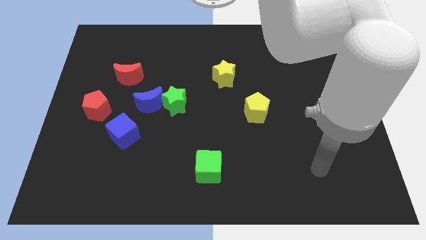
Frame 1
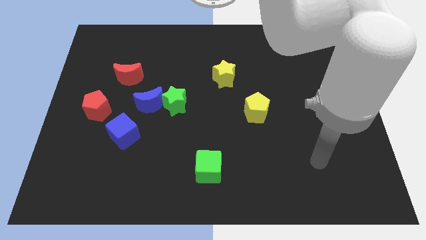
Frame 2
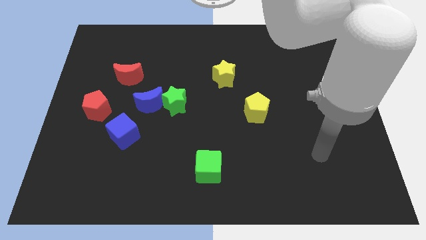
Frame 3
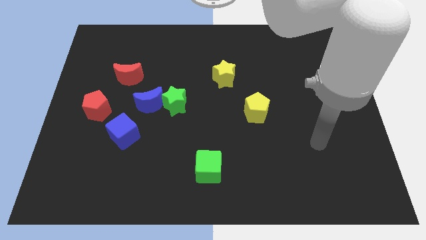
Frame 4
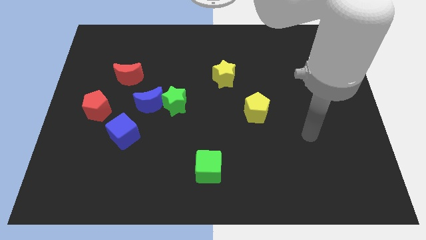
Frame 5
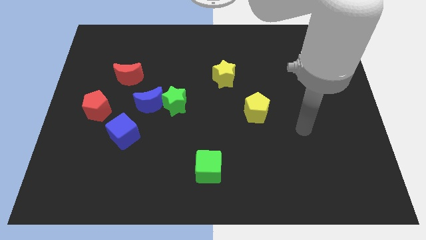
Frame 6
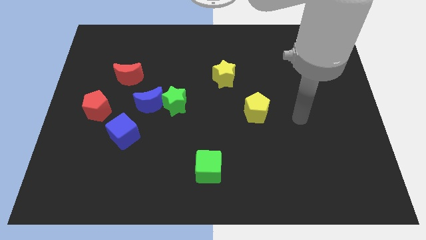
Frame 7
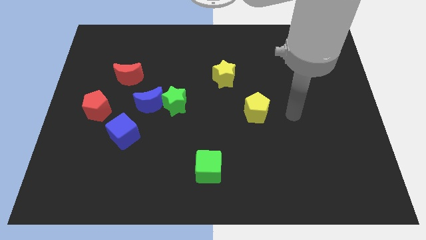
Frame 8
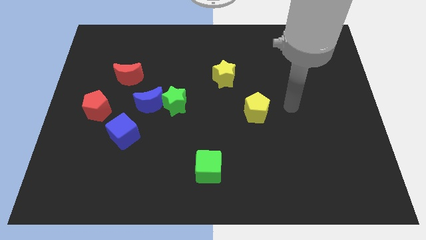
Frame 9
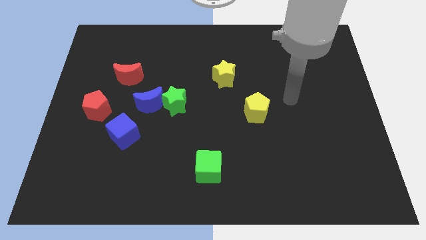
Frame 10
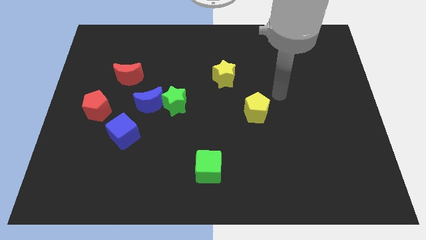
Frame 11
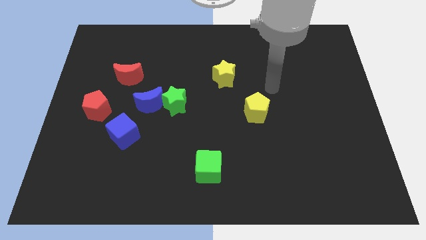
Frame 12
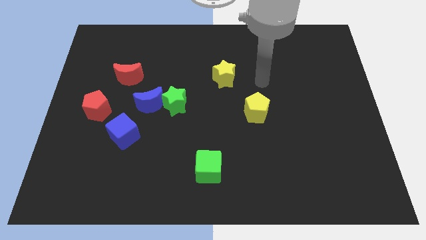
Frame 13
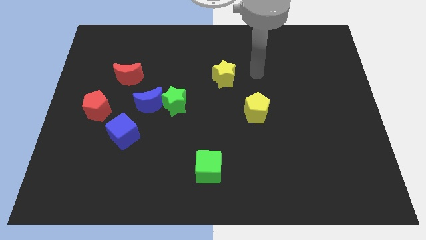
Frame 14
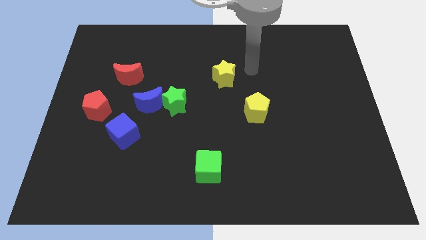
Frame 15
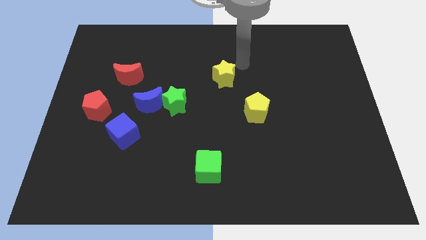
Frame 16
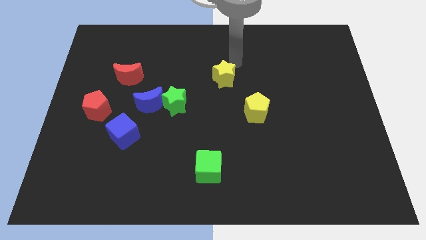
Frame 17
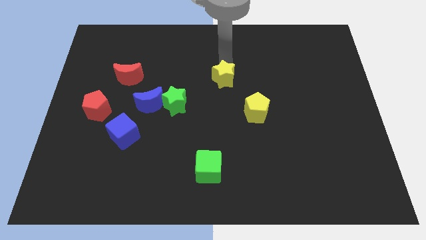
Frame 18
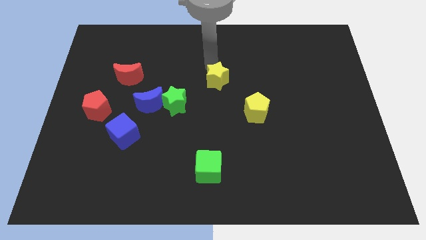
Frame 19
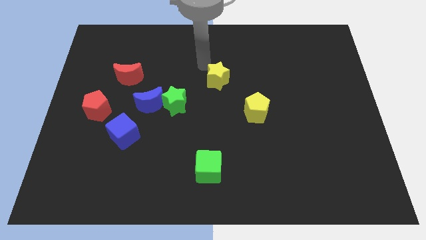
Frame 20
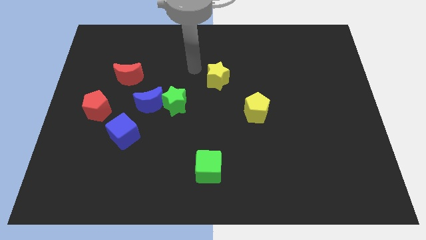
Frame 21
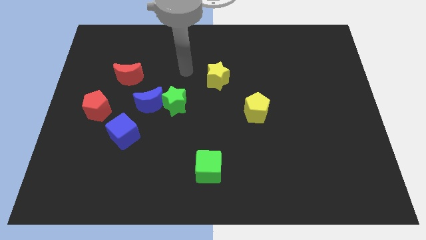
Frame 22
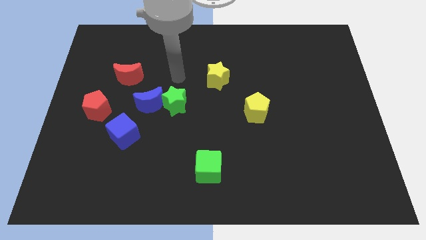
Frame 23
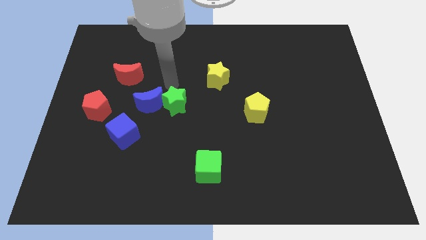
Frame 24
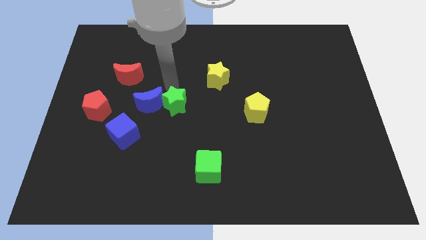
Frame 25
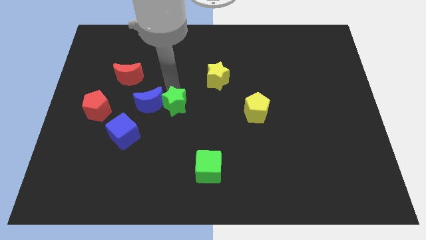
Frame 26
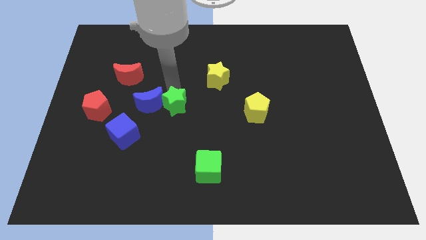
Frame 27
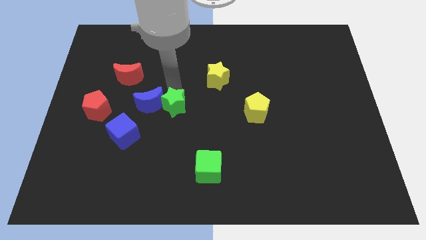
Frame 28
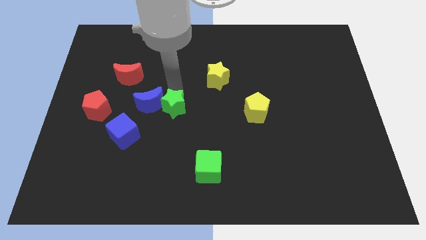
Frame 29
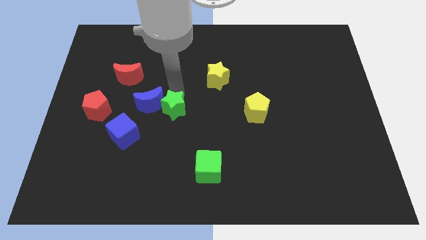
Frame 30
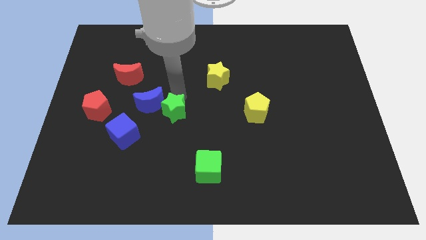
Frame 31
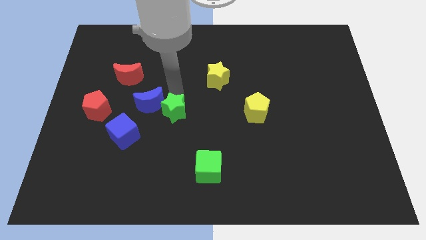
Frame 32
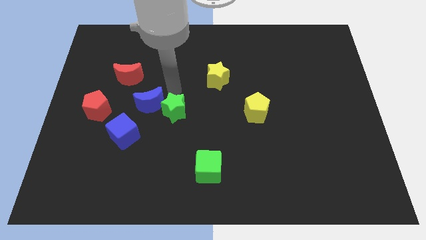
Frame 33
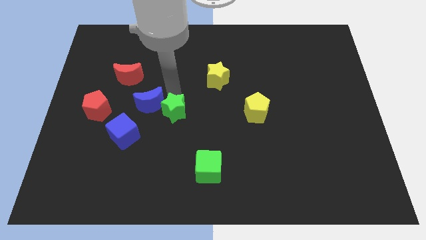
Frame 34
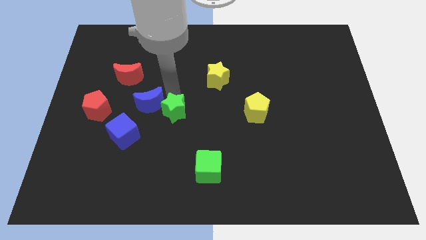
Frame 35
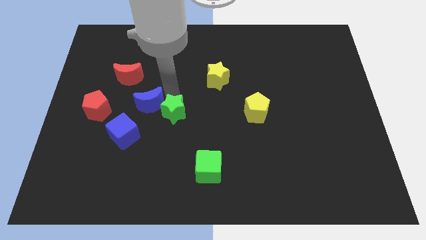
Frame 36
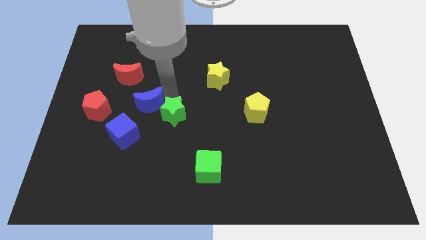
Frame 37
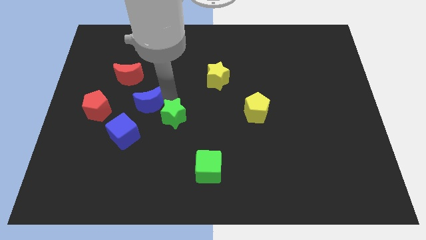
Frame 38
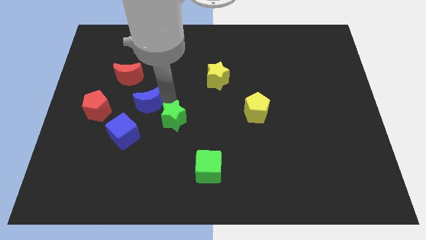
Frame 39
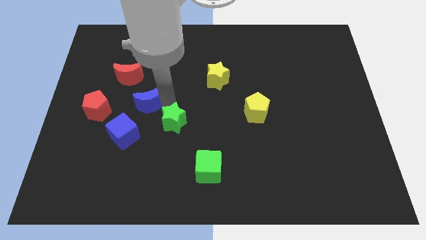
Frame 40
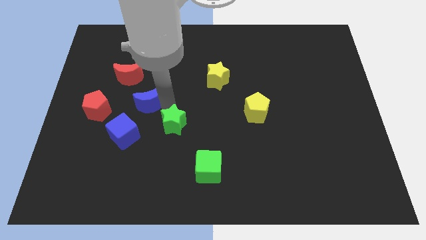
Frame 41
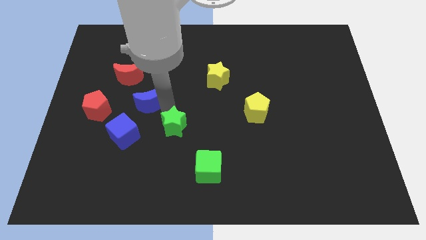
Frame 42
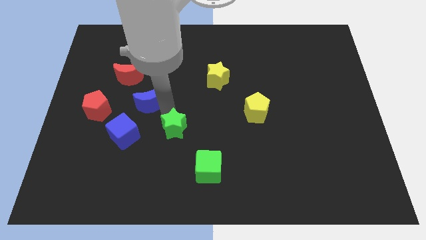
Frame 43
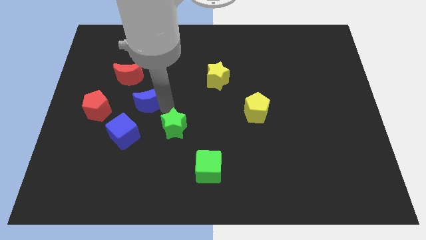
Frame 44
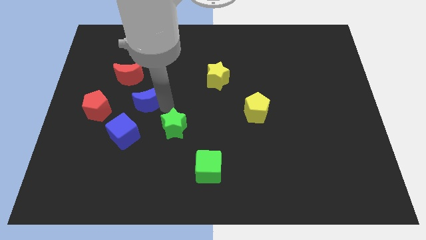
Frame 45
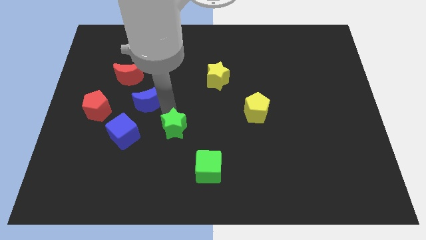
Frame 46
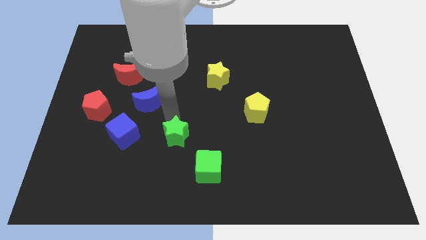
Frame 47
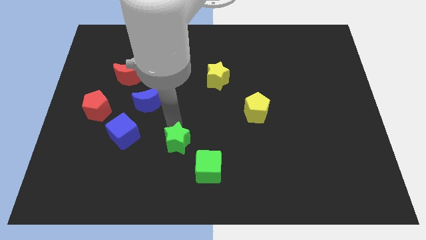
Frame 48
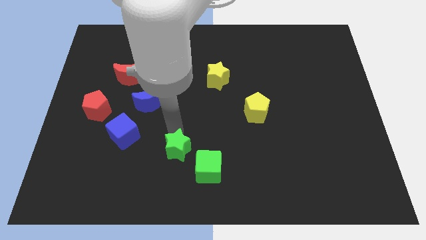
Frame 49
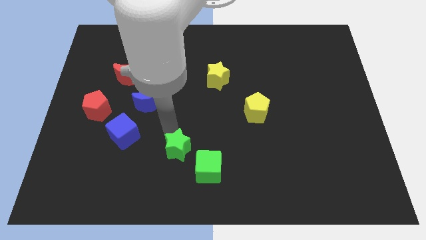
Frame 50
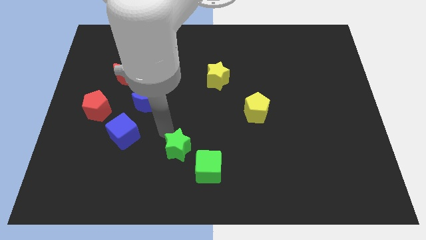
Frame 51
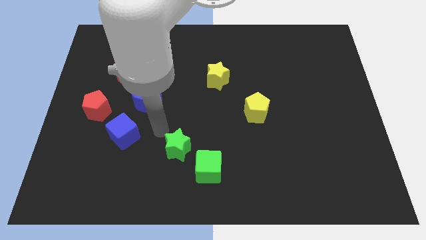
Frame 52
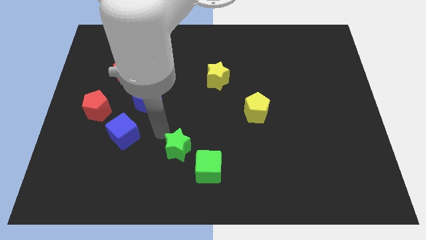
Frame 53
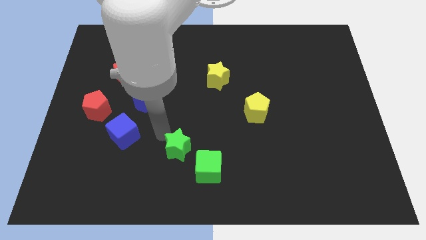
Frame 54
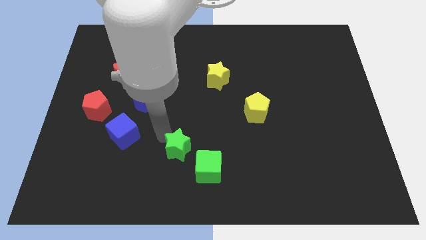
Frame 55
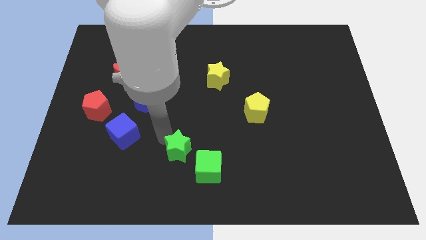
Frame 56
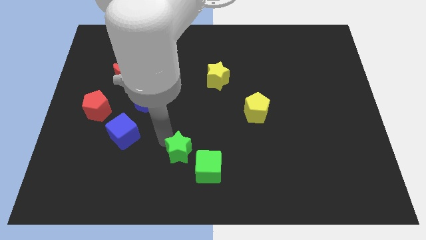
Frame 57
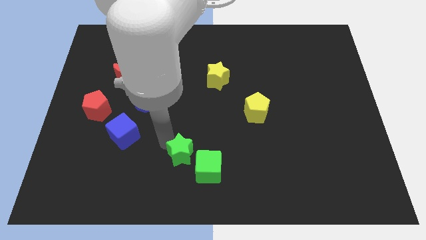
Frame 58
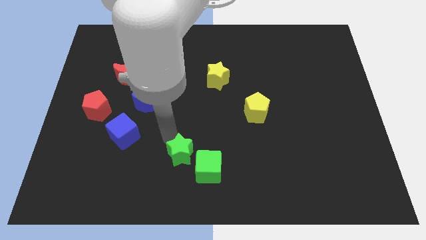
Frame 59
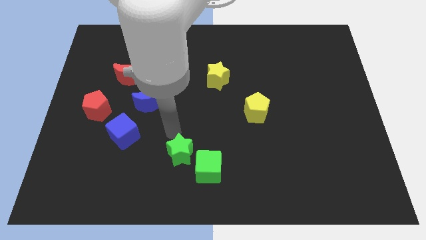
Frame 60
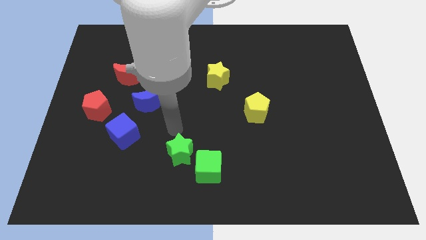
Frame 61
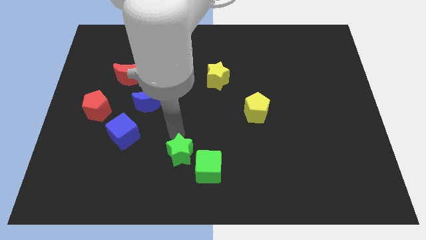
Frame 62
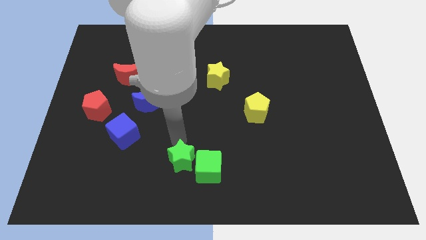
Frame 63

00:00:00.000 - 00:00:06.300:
slide the green star to the bottom side
